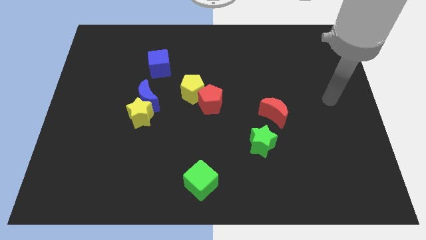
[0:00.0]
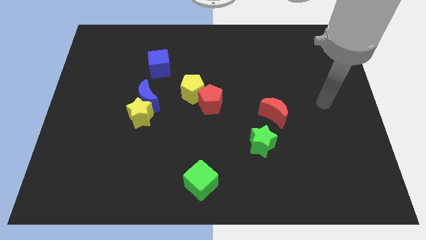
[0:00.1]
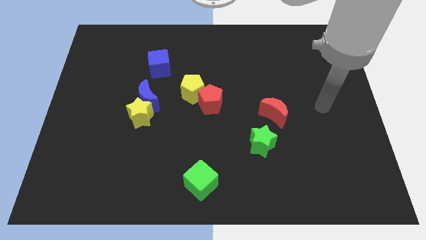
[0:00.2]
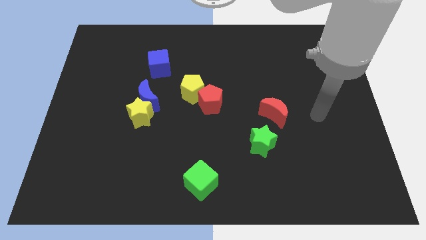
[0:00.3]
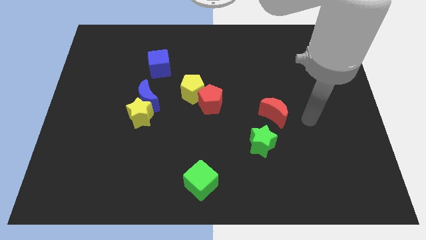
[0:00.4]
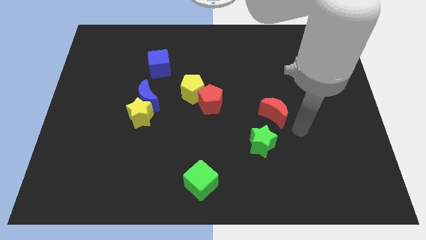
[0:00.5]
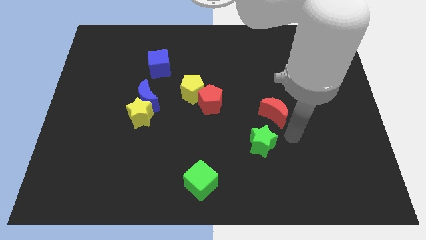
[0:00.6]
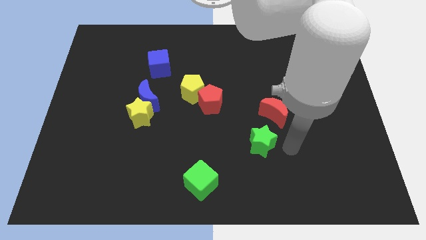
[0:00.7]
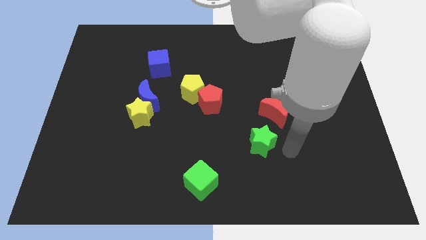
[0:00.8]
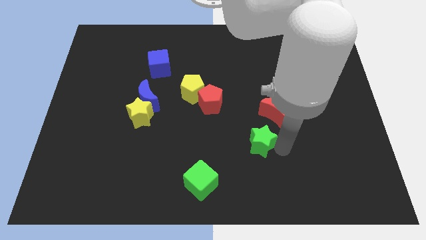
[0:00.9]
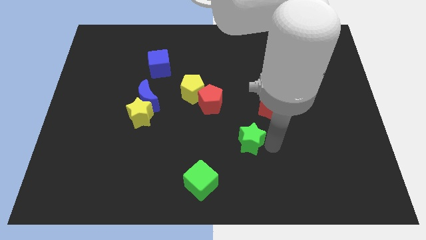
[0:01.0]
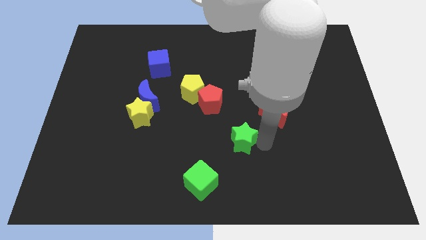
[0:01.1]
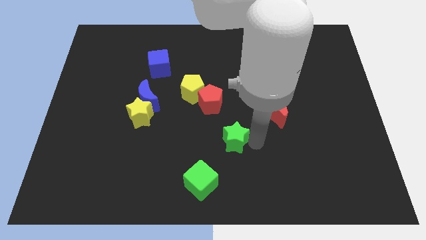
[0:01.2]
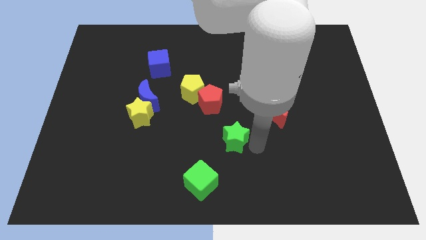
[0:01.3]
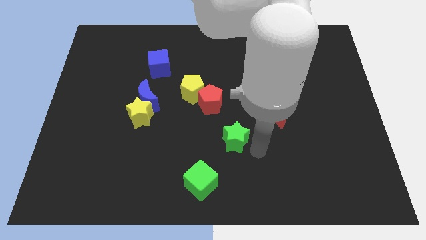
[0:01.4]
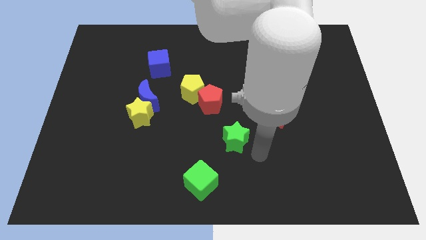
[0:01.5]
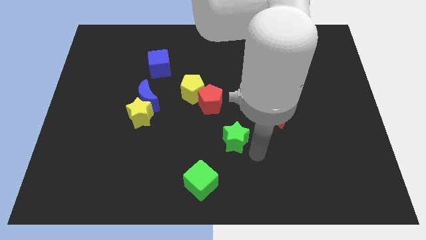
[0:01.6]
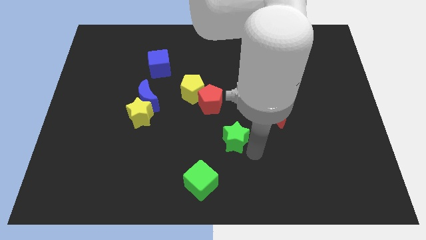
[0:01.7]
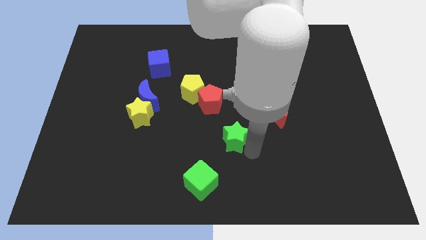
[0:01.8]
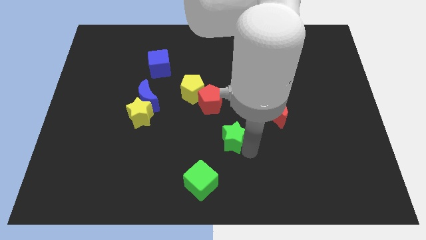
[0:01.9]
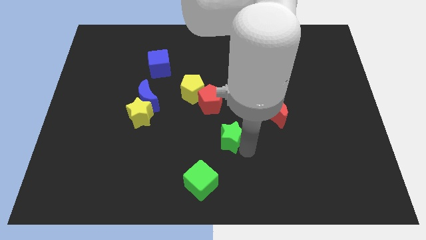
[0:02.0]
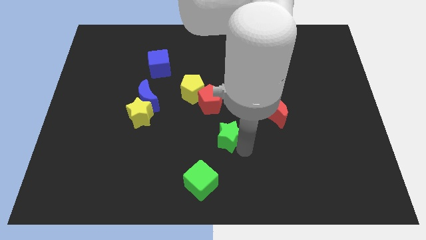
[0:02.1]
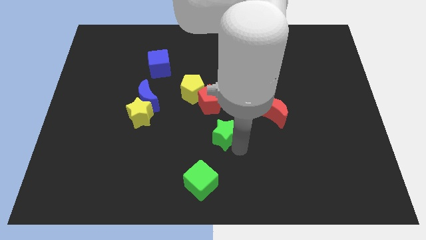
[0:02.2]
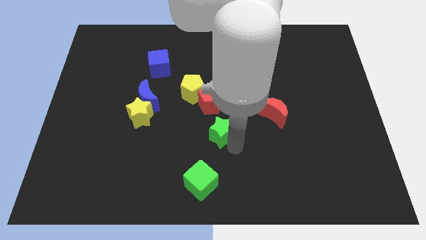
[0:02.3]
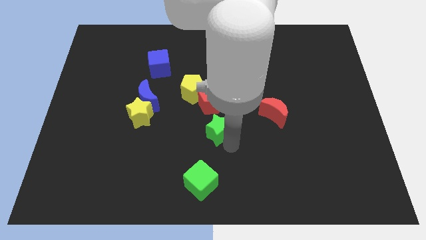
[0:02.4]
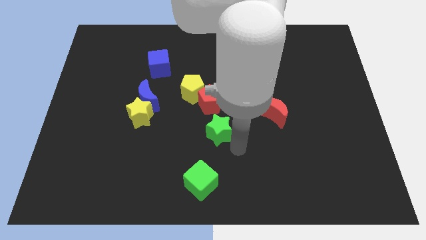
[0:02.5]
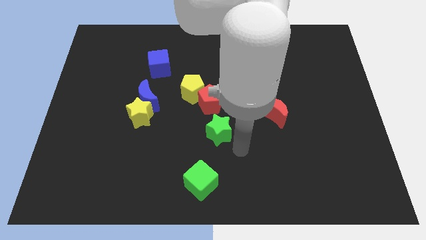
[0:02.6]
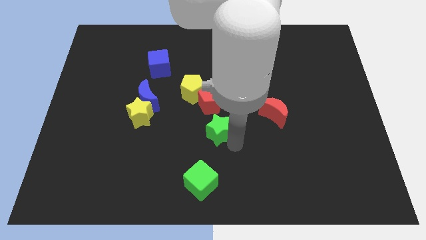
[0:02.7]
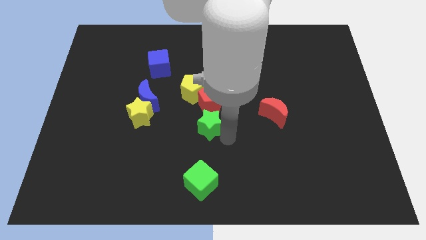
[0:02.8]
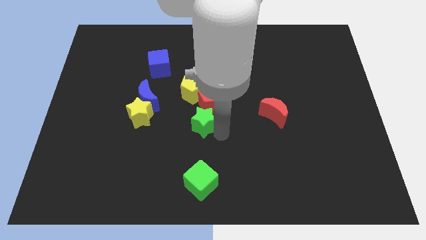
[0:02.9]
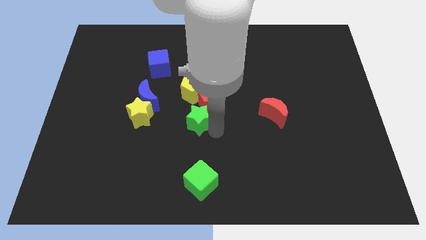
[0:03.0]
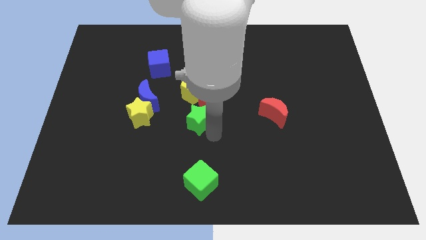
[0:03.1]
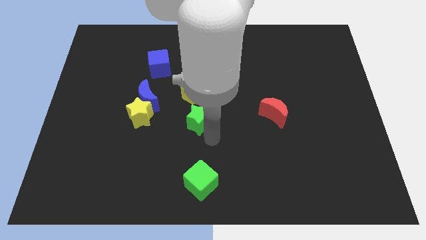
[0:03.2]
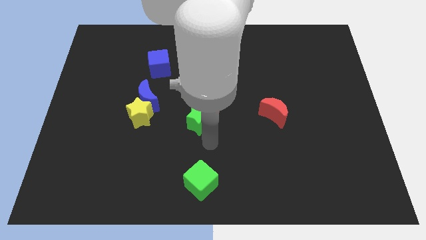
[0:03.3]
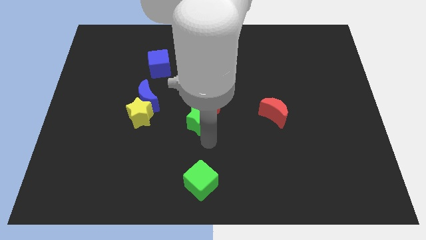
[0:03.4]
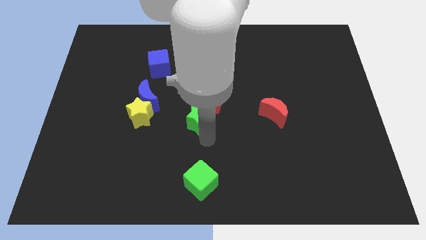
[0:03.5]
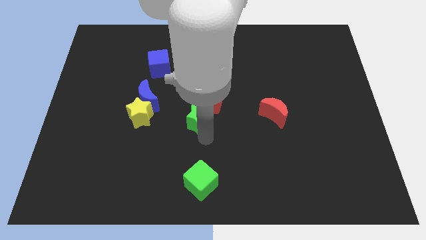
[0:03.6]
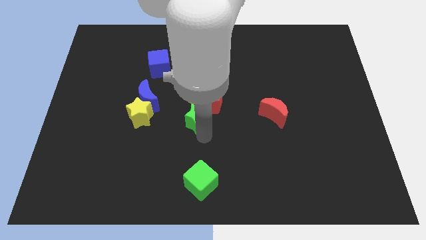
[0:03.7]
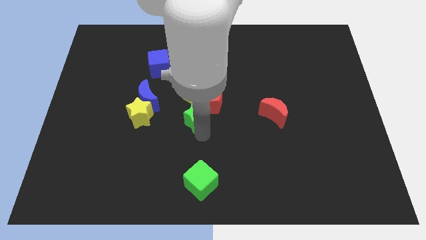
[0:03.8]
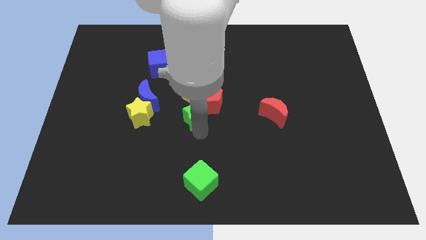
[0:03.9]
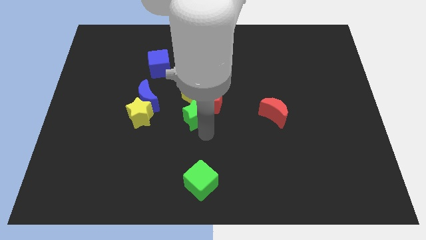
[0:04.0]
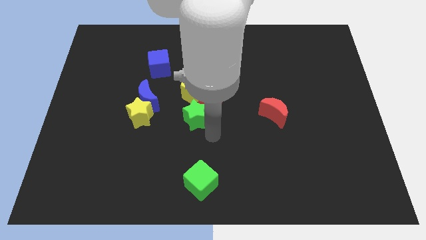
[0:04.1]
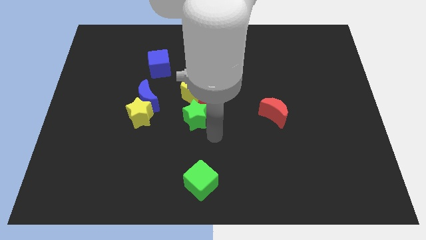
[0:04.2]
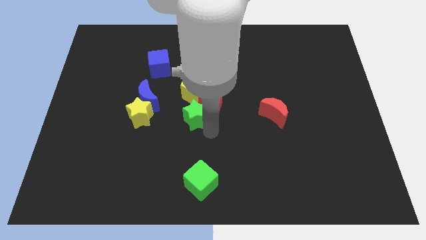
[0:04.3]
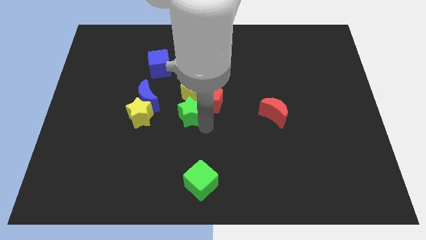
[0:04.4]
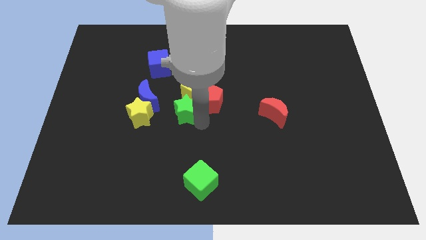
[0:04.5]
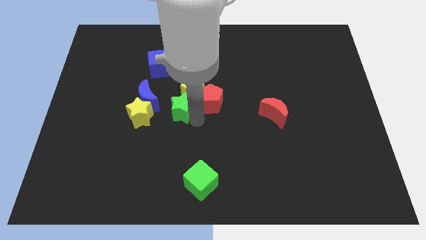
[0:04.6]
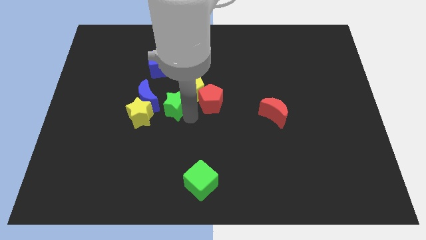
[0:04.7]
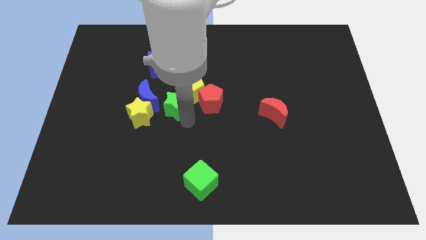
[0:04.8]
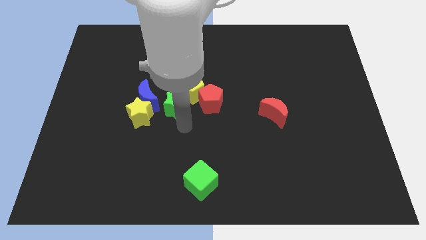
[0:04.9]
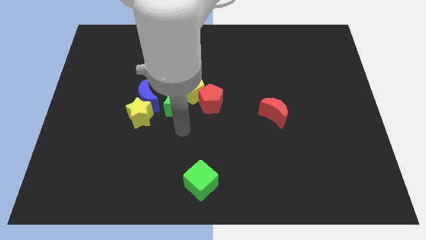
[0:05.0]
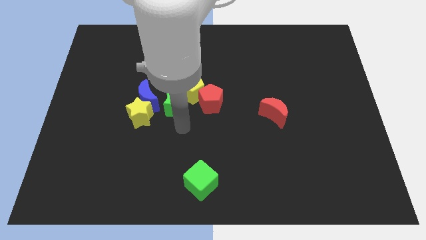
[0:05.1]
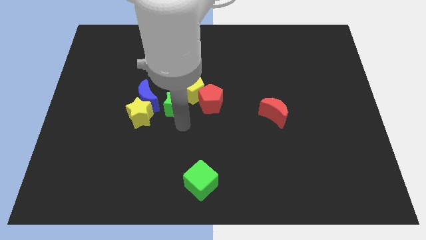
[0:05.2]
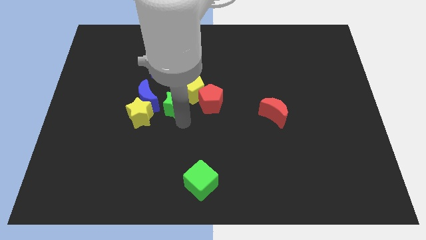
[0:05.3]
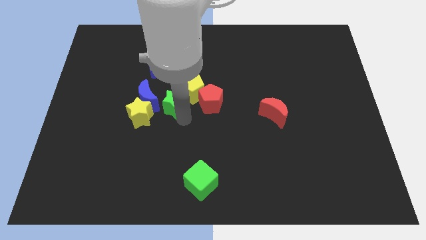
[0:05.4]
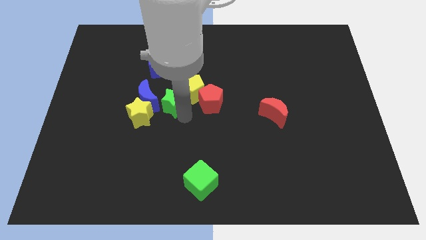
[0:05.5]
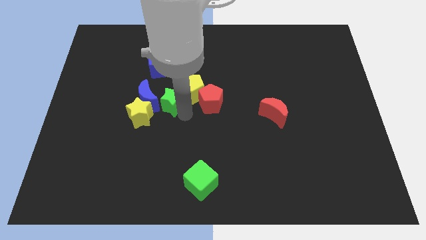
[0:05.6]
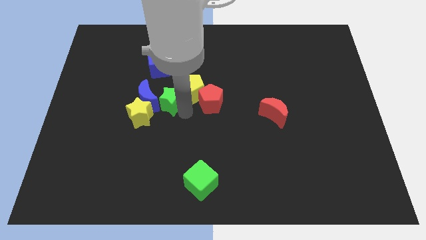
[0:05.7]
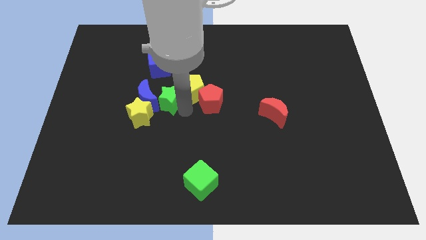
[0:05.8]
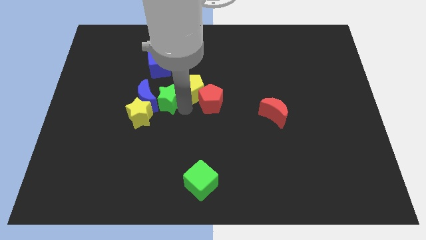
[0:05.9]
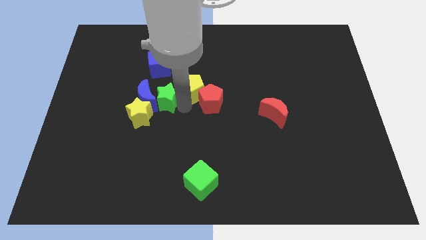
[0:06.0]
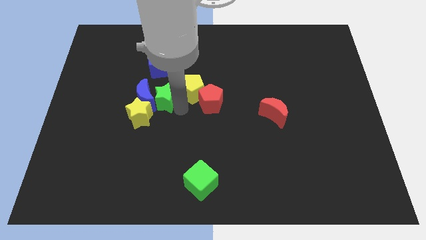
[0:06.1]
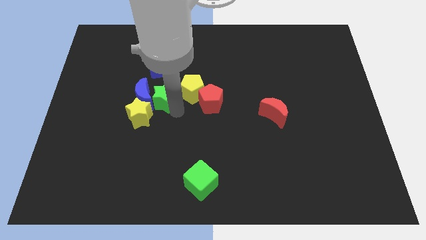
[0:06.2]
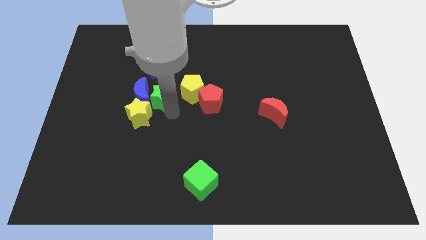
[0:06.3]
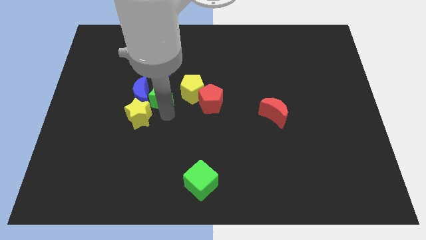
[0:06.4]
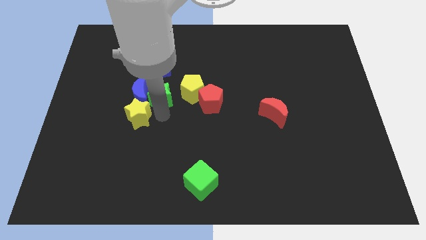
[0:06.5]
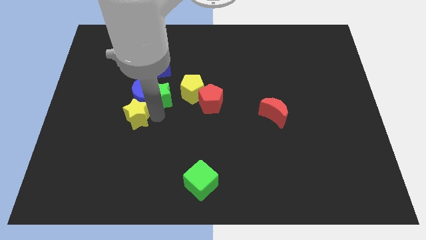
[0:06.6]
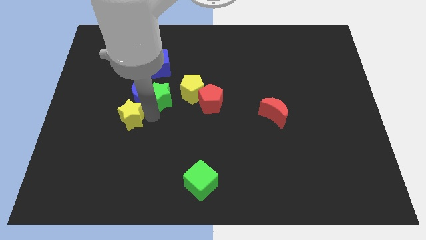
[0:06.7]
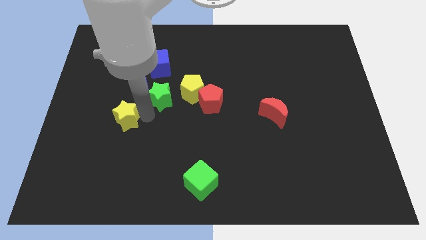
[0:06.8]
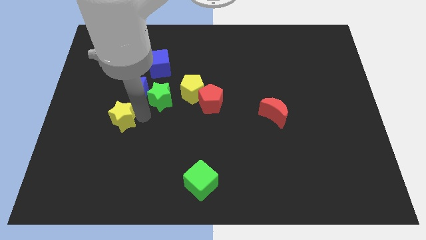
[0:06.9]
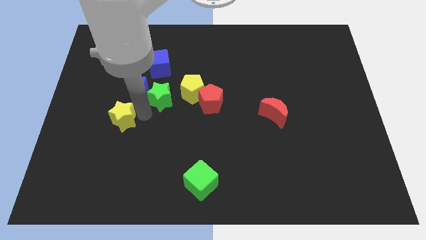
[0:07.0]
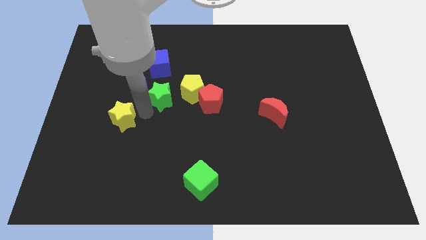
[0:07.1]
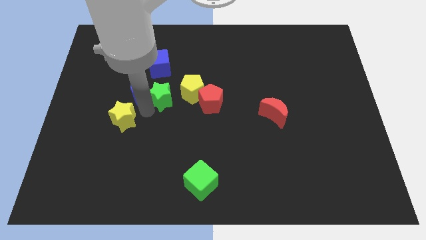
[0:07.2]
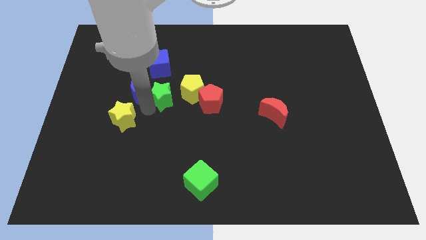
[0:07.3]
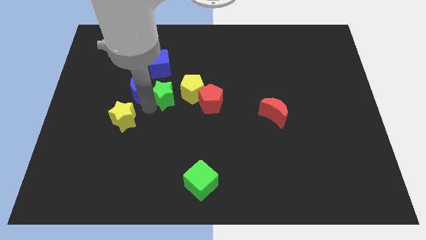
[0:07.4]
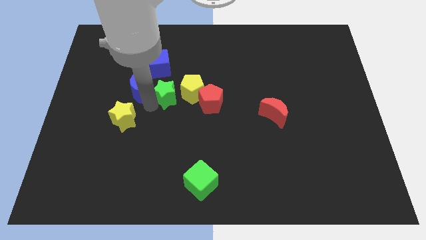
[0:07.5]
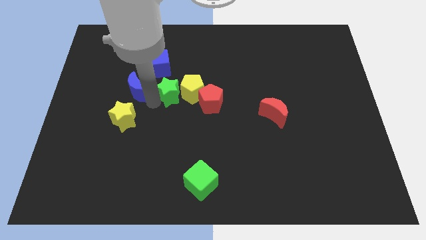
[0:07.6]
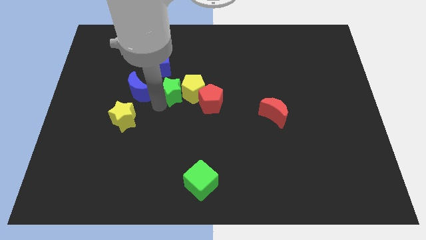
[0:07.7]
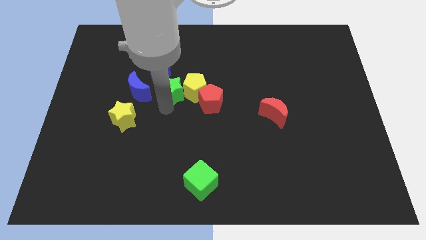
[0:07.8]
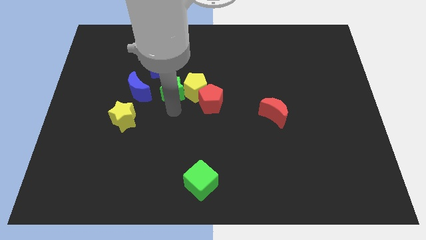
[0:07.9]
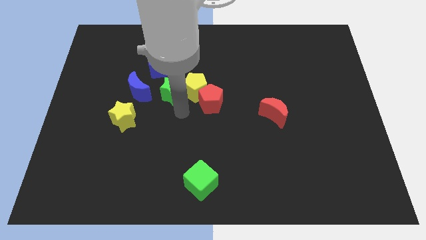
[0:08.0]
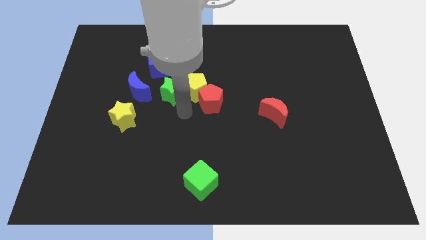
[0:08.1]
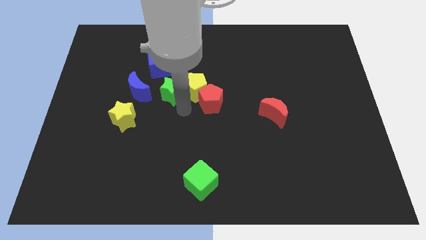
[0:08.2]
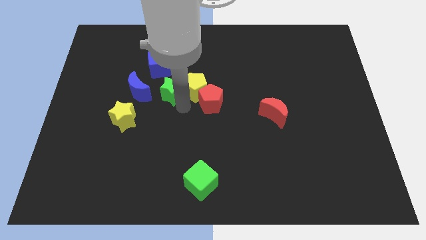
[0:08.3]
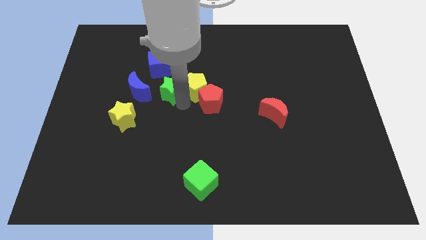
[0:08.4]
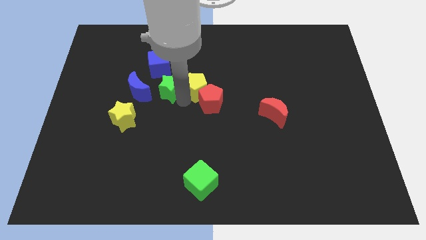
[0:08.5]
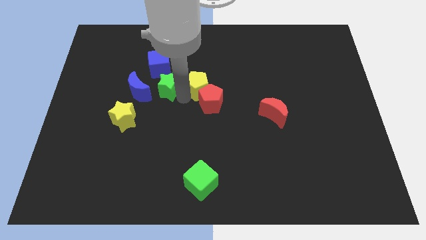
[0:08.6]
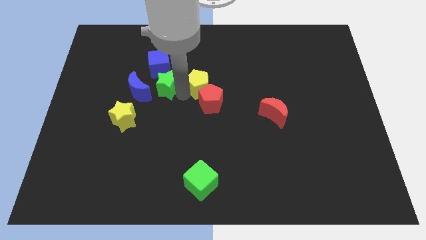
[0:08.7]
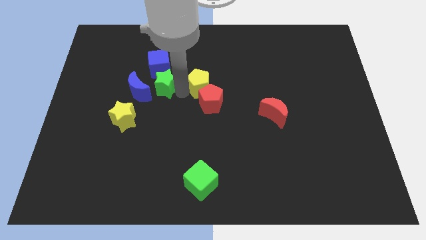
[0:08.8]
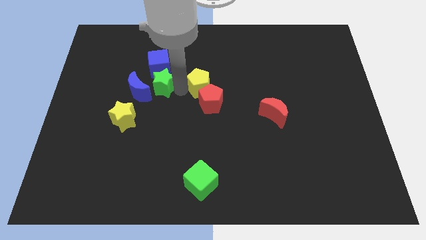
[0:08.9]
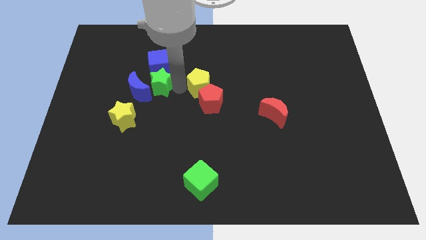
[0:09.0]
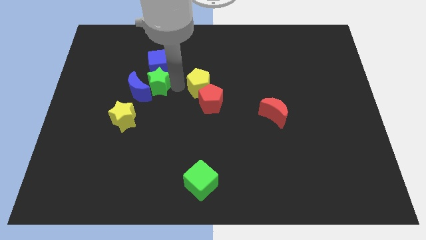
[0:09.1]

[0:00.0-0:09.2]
slide the green star next to the blue cube
